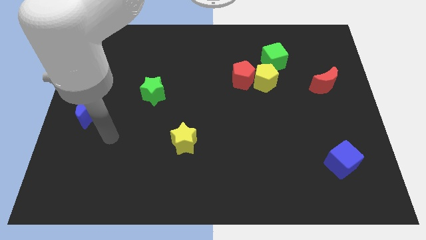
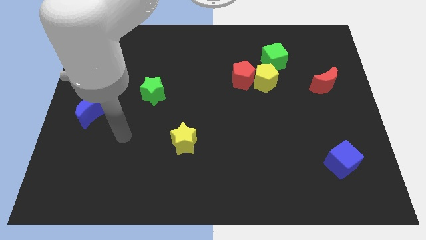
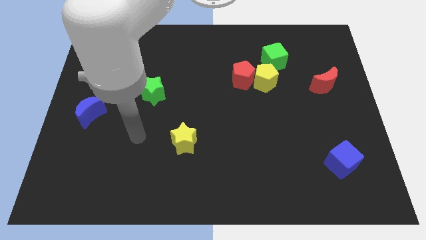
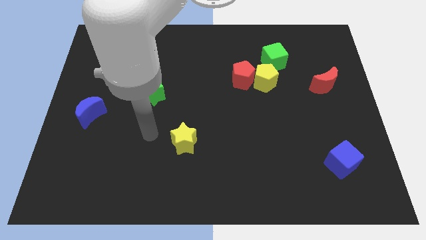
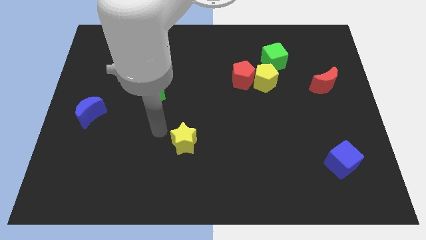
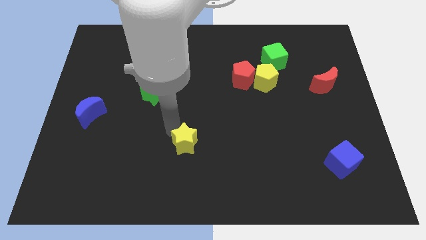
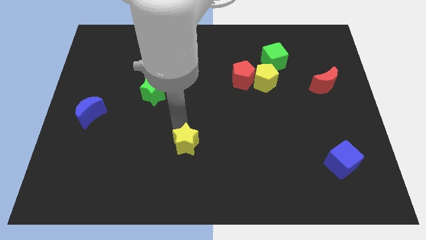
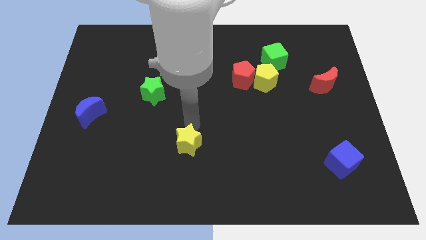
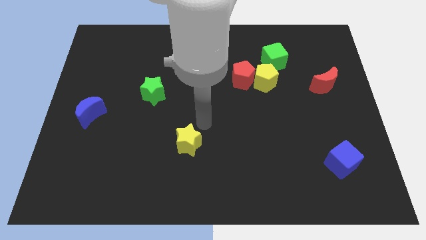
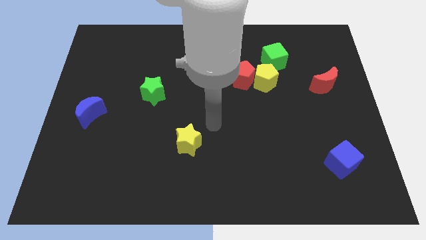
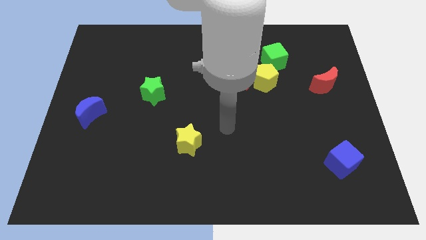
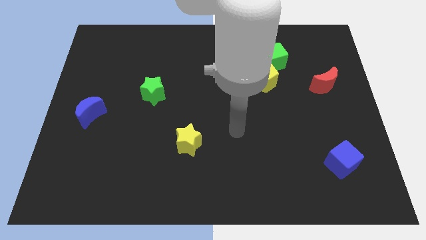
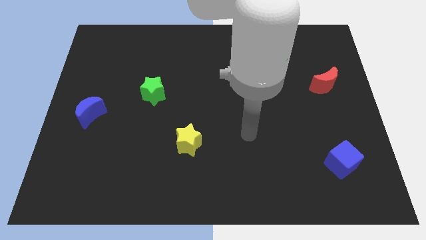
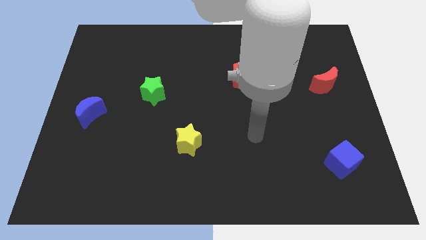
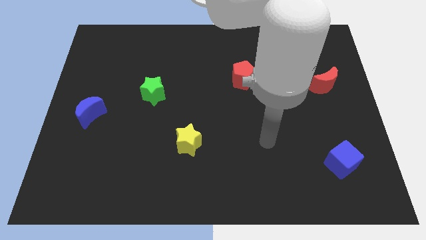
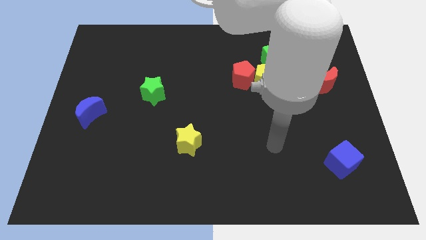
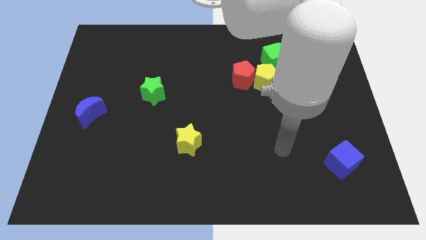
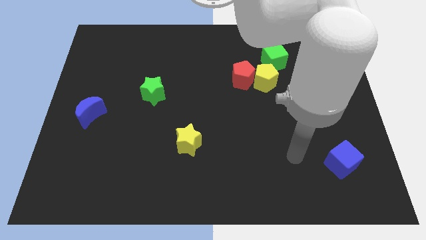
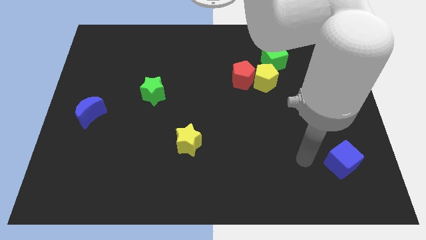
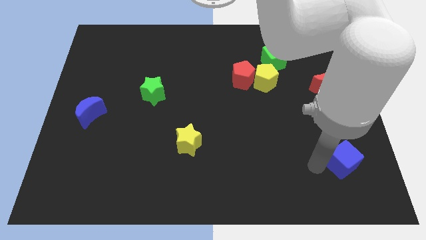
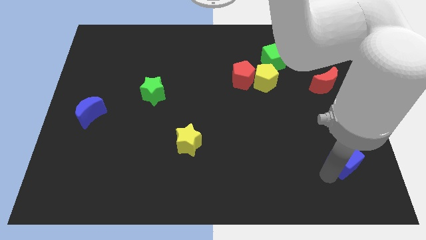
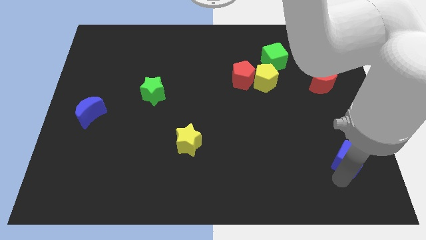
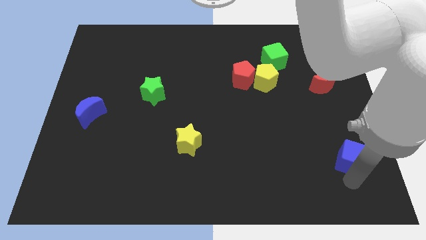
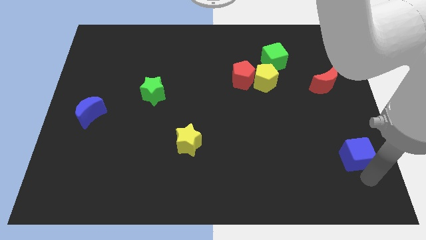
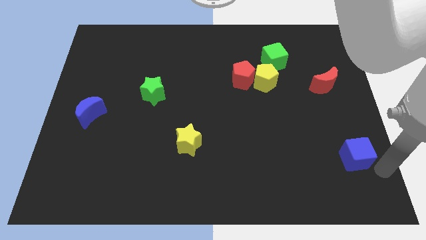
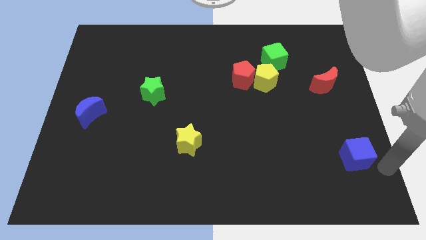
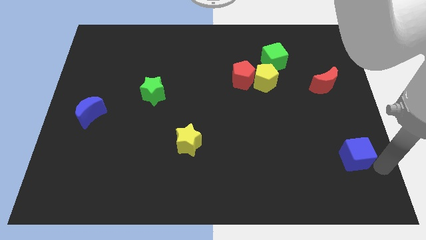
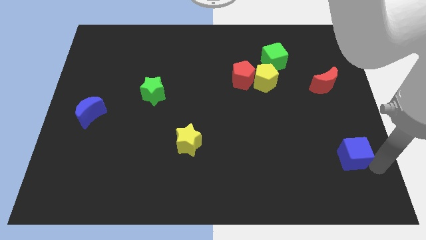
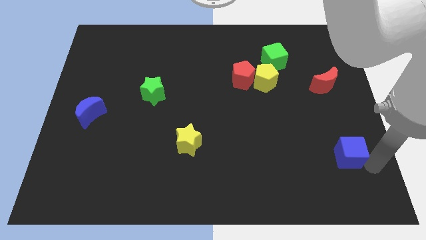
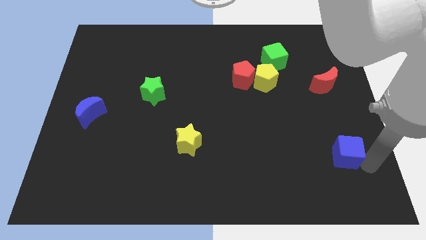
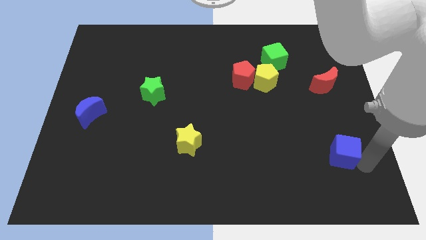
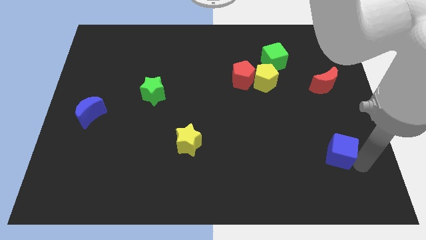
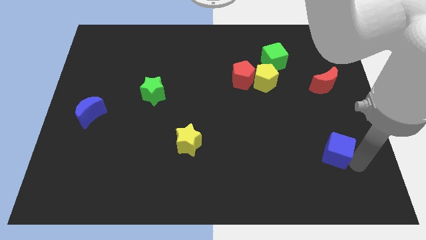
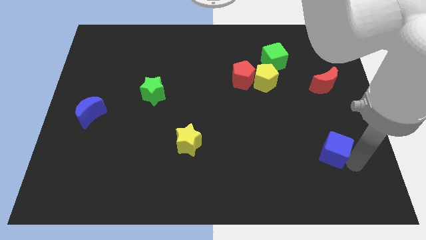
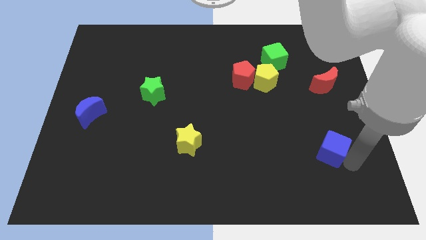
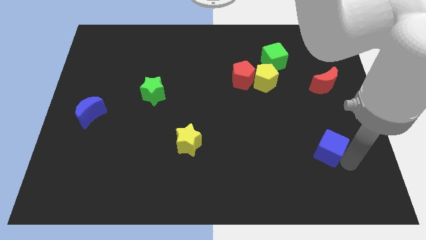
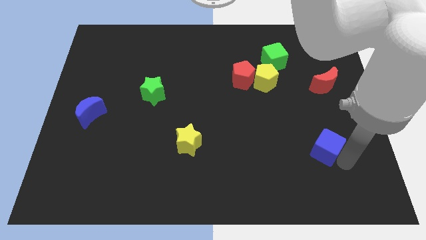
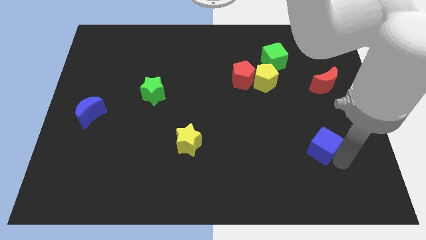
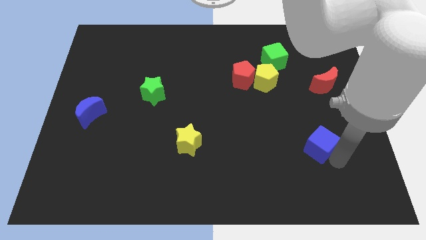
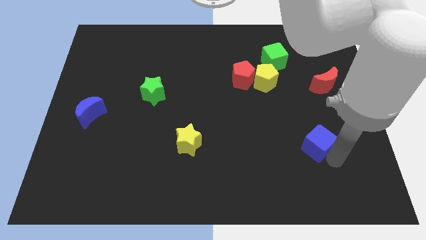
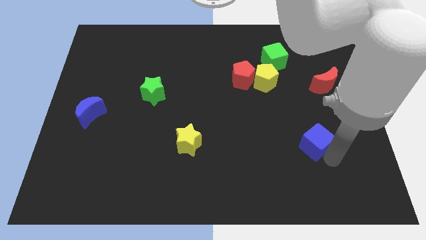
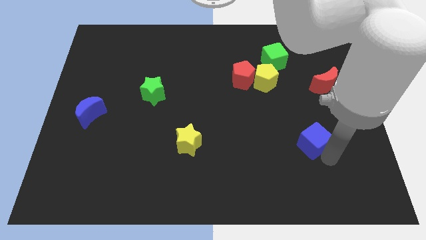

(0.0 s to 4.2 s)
move the blue cube slightly up and to the left diagonally

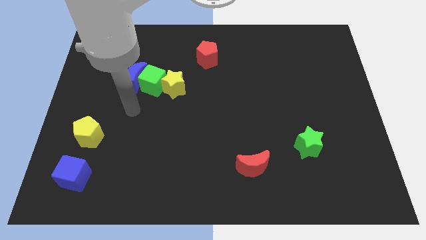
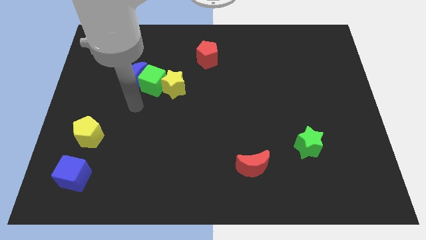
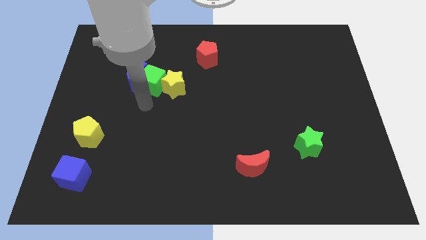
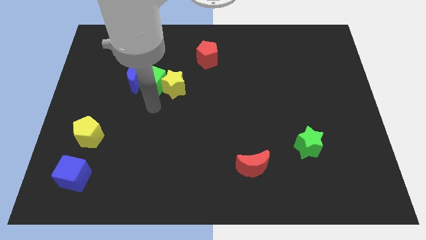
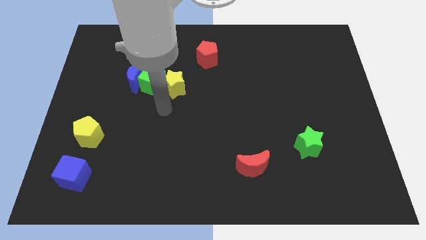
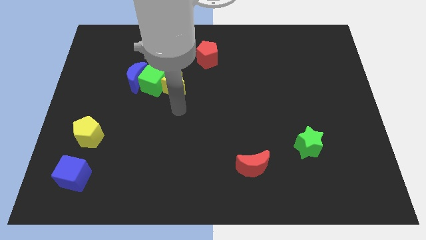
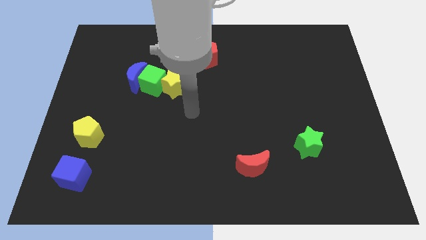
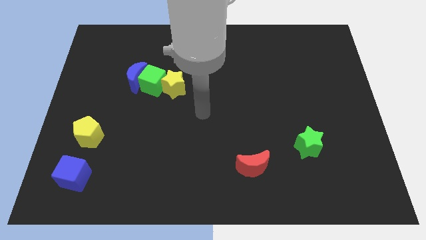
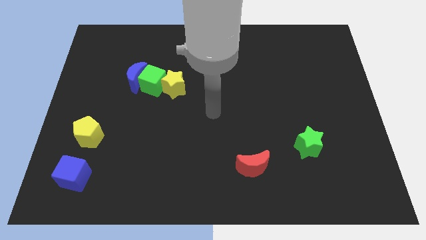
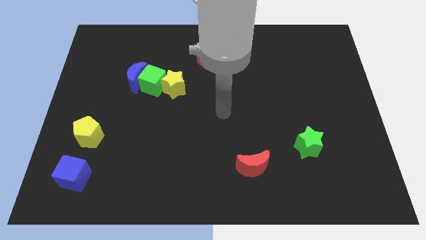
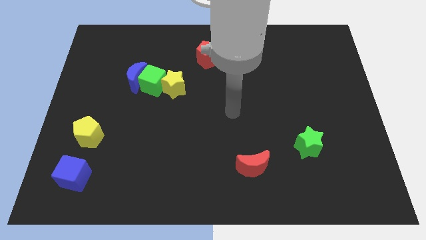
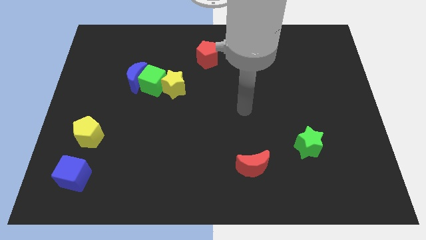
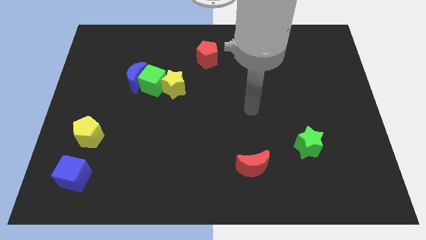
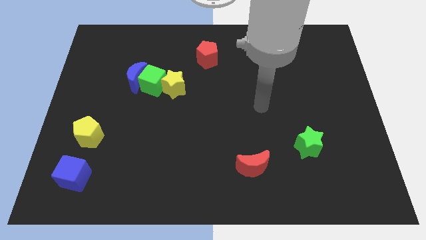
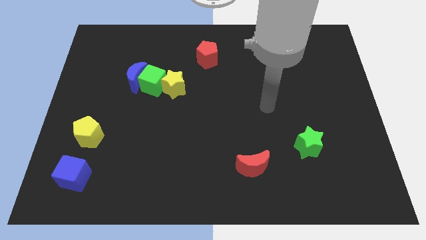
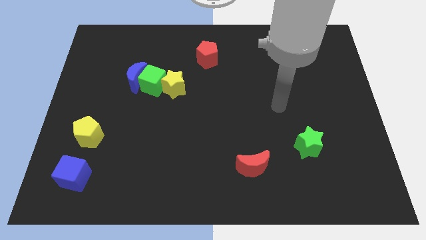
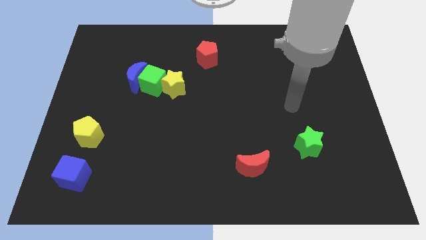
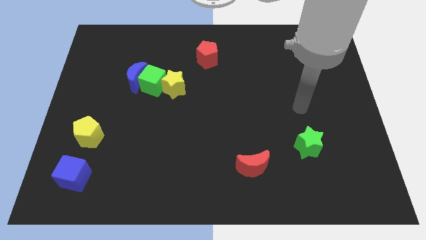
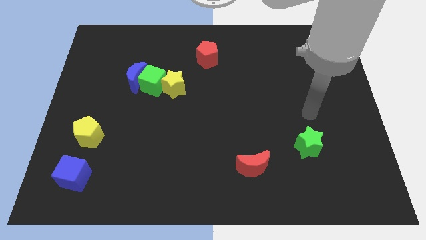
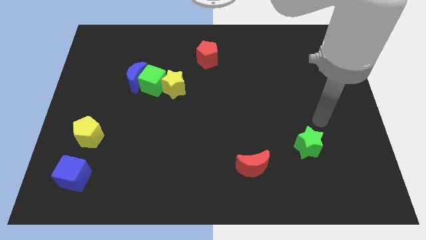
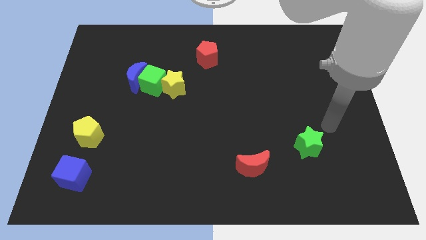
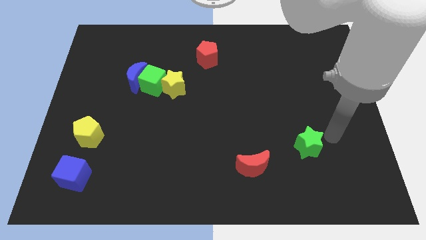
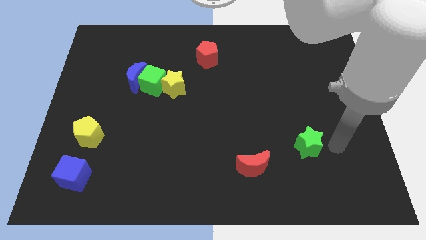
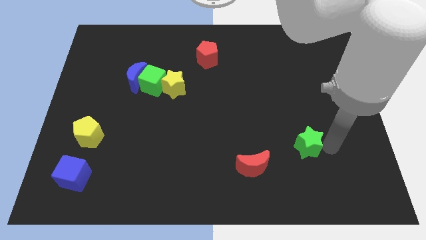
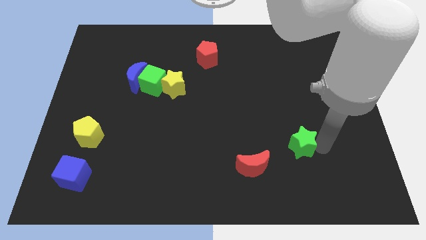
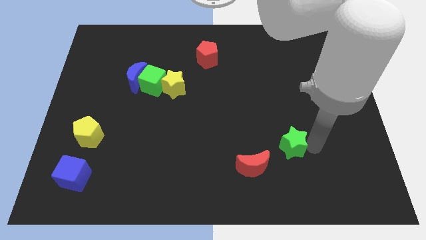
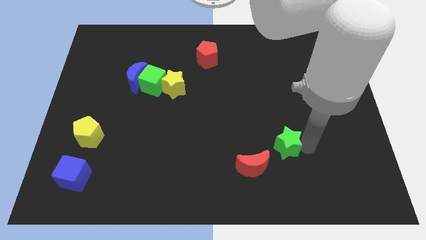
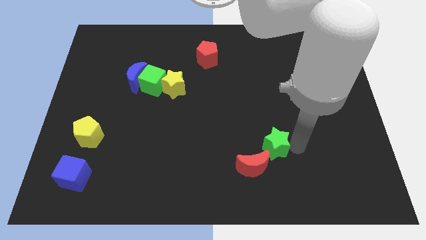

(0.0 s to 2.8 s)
slightly slide the green star left

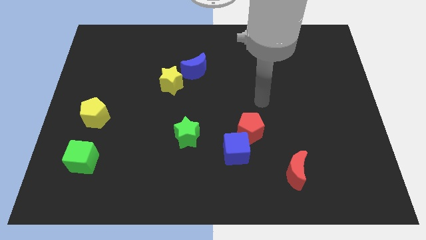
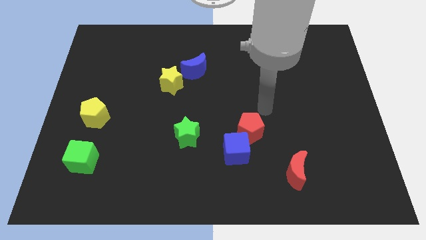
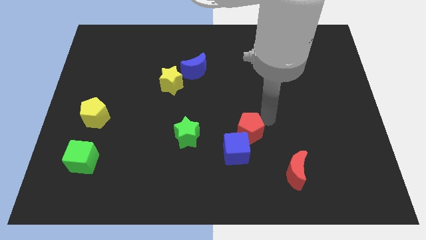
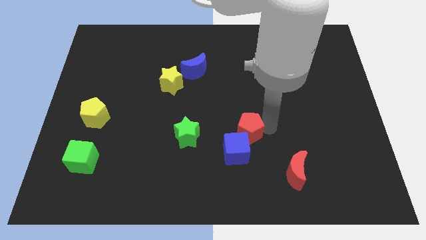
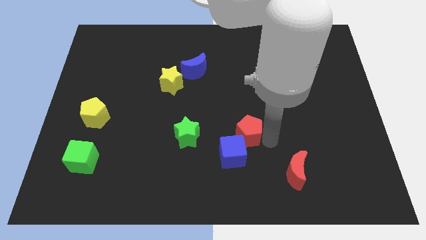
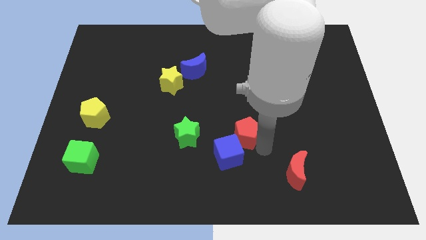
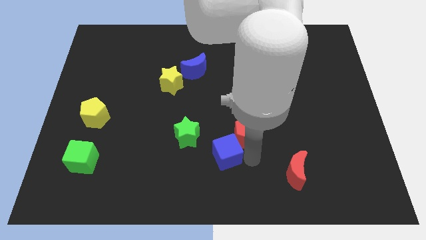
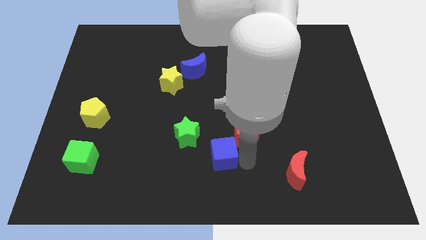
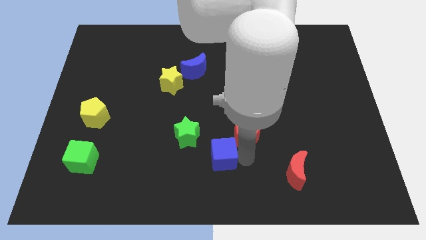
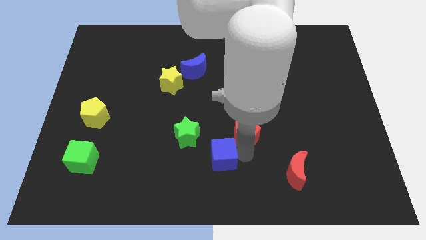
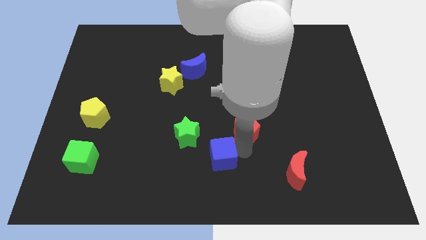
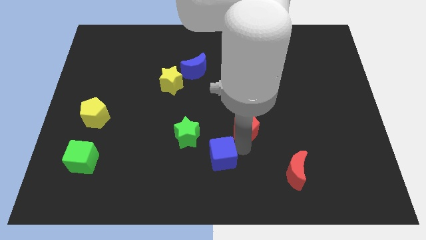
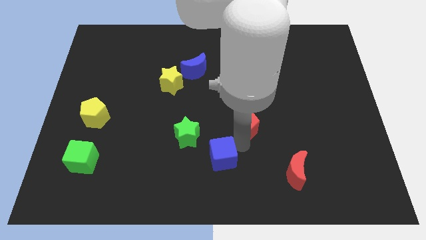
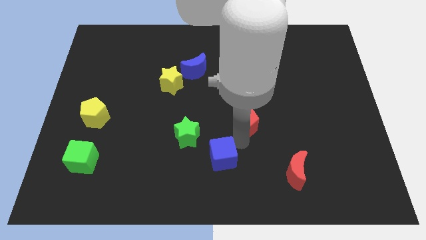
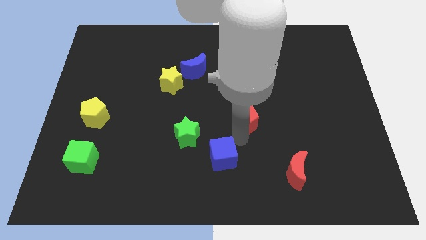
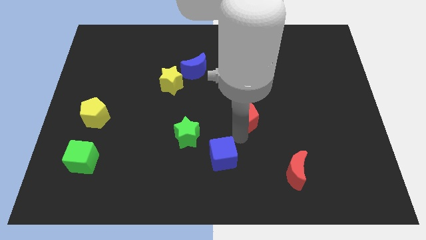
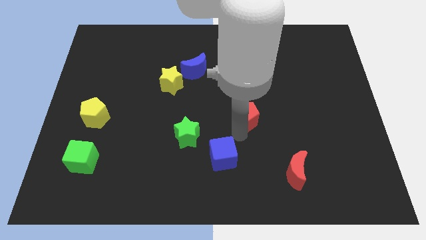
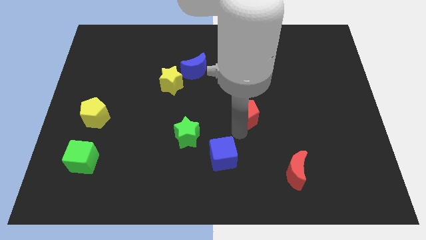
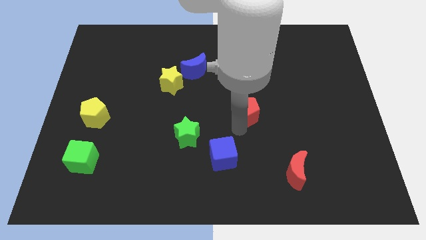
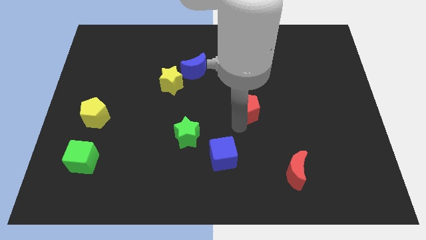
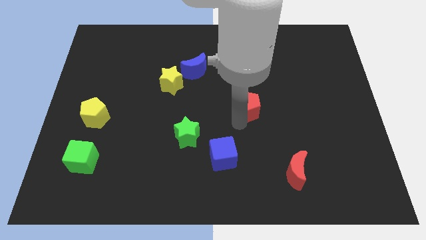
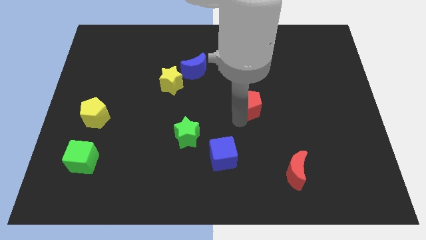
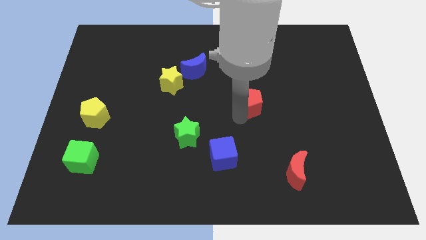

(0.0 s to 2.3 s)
slide the red pentagon up somewhat
